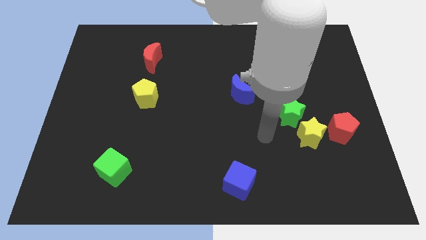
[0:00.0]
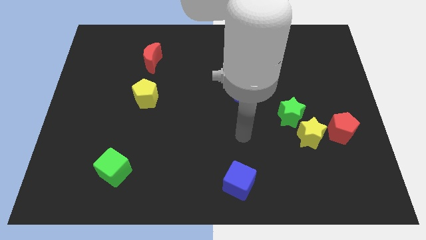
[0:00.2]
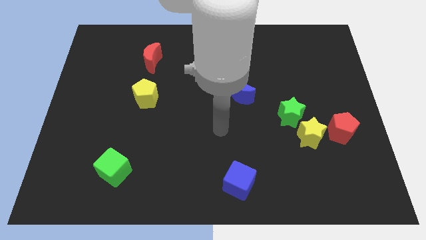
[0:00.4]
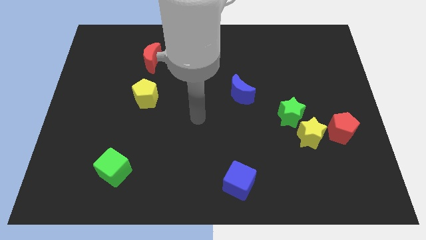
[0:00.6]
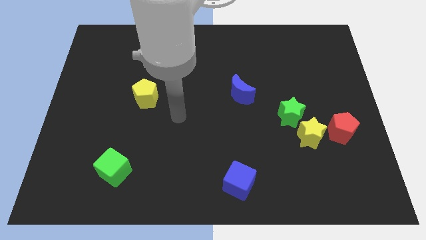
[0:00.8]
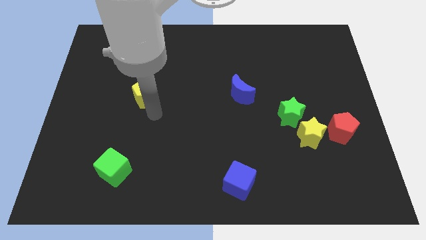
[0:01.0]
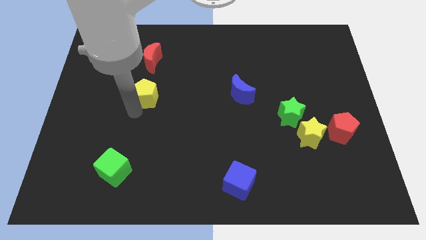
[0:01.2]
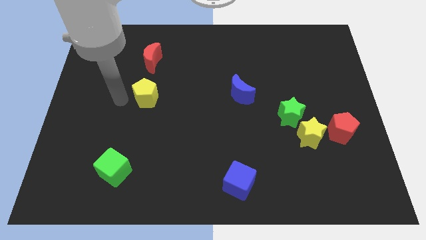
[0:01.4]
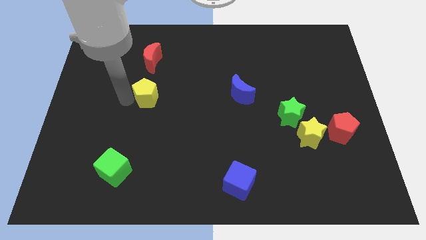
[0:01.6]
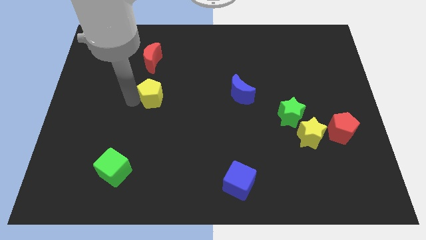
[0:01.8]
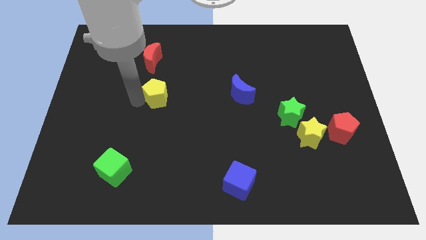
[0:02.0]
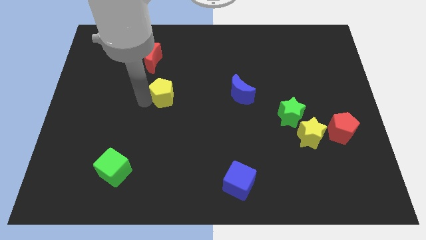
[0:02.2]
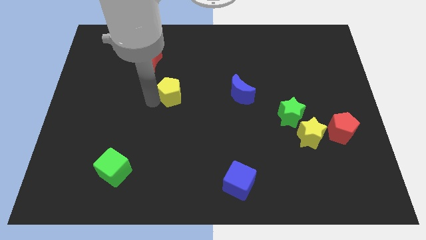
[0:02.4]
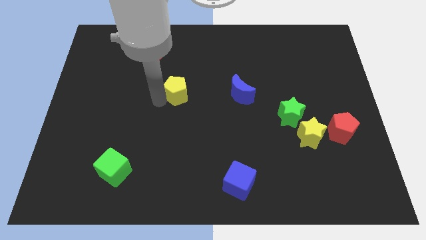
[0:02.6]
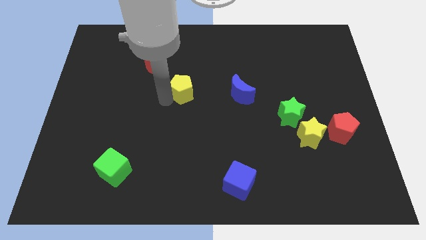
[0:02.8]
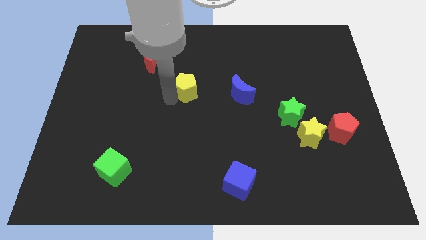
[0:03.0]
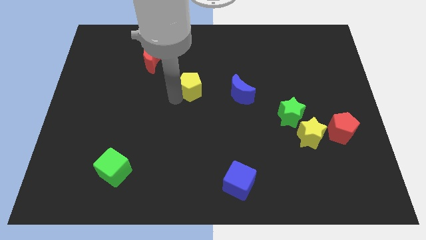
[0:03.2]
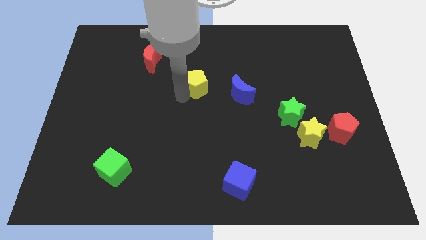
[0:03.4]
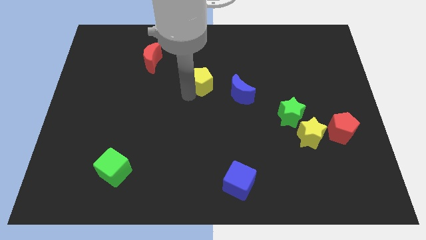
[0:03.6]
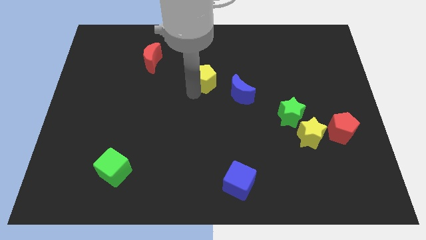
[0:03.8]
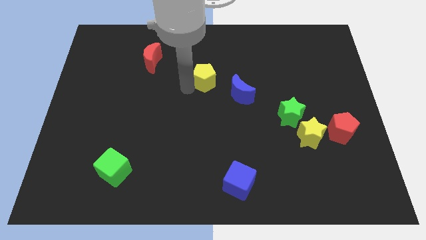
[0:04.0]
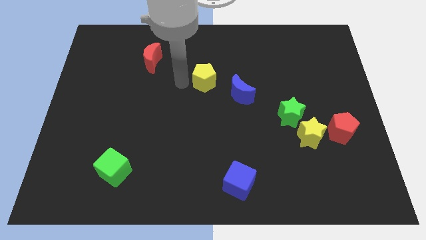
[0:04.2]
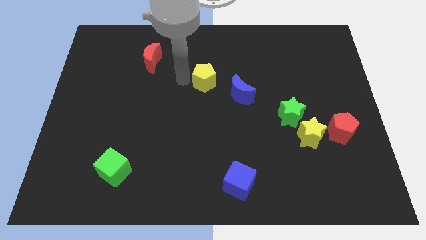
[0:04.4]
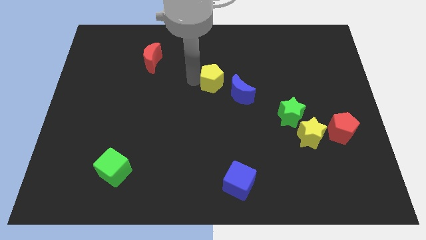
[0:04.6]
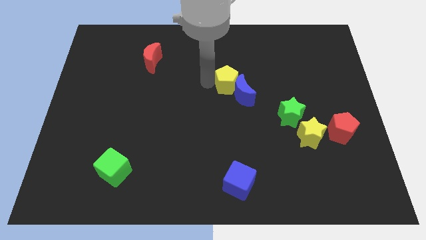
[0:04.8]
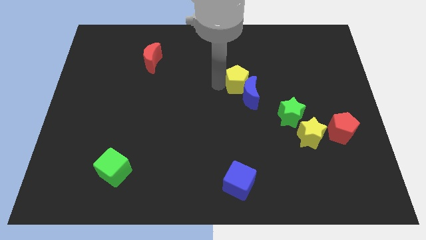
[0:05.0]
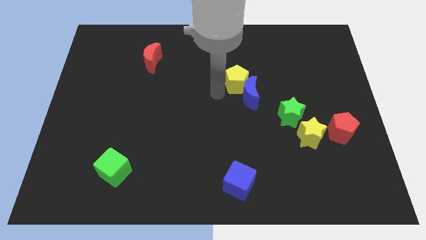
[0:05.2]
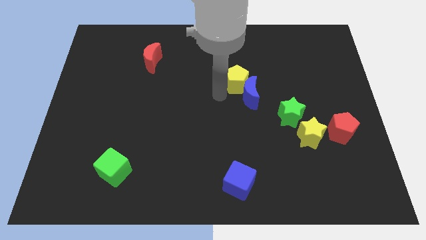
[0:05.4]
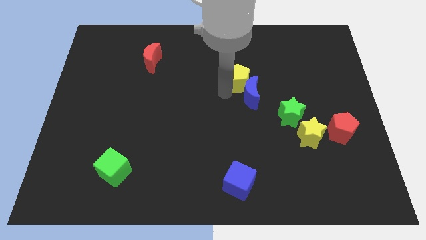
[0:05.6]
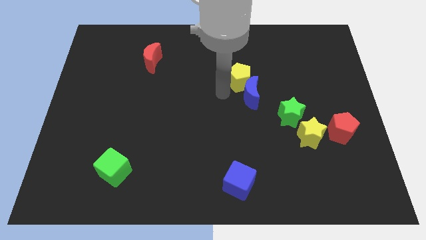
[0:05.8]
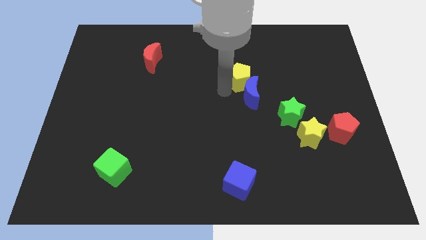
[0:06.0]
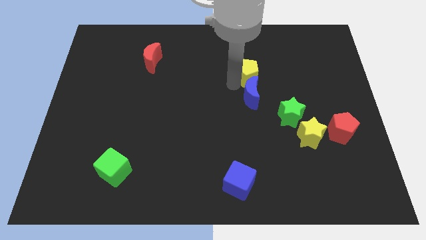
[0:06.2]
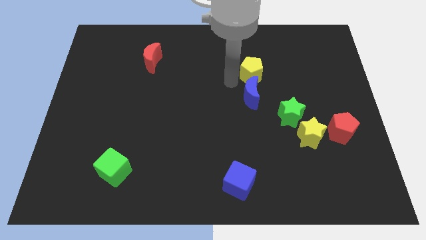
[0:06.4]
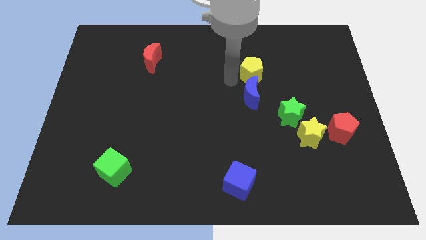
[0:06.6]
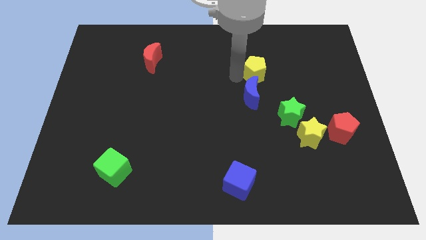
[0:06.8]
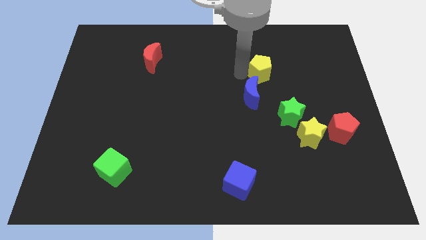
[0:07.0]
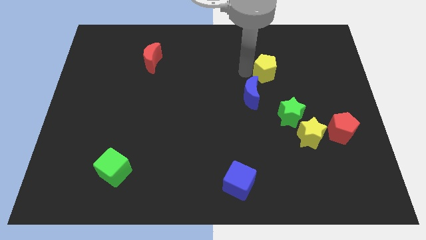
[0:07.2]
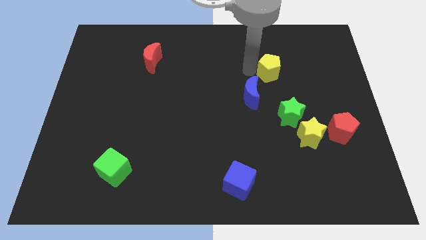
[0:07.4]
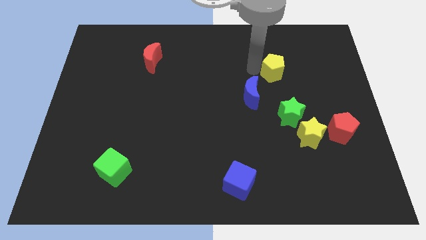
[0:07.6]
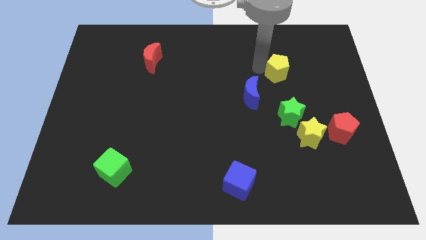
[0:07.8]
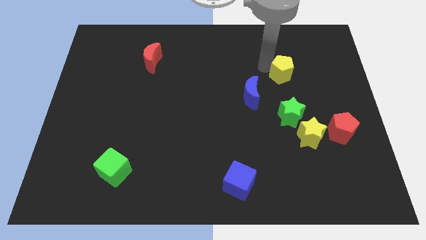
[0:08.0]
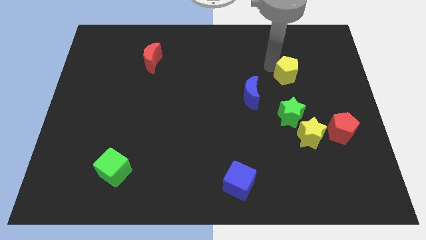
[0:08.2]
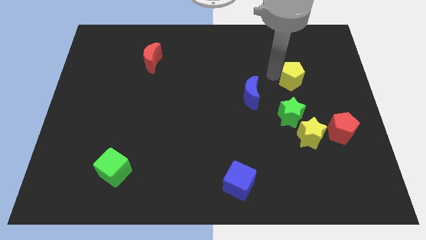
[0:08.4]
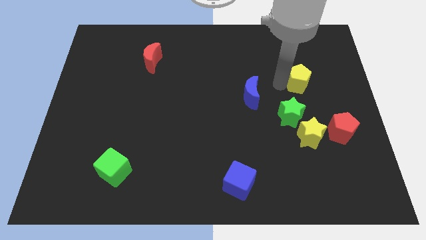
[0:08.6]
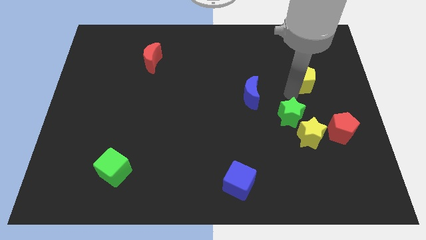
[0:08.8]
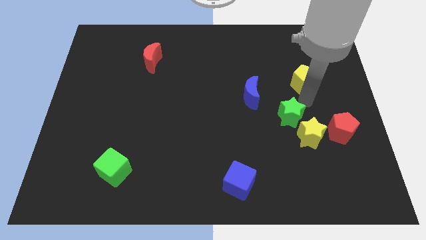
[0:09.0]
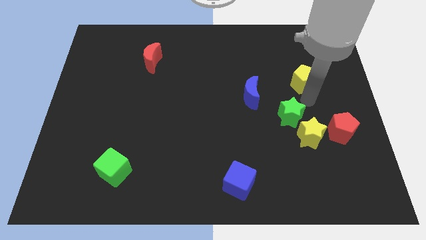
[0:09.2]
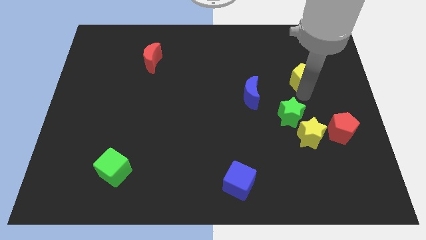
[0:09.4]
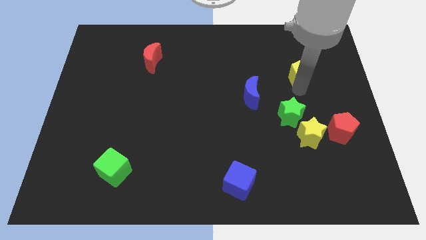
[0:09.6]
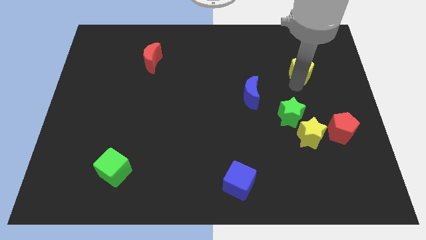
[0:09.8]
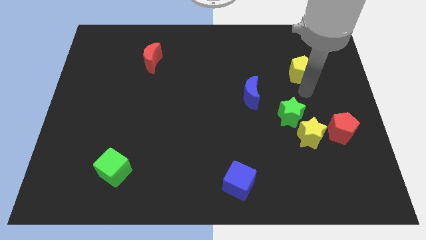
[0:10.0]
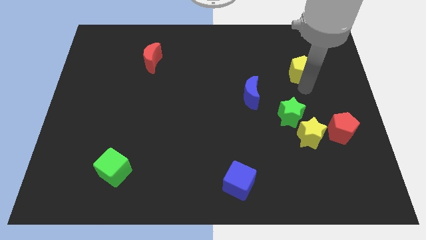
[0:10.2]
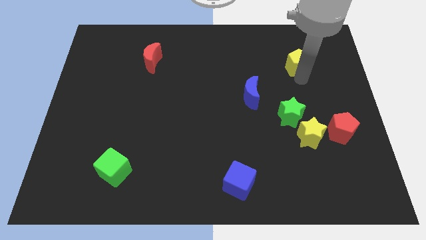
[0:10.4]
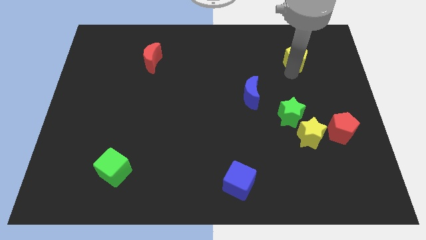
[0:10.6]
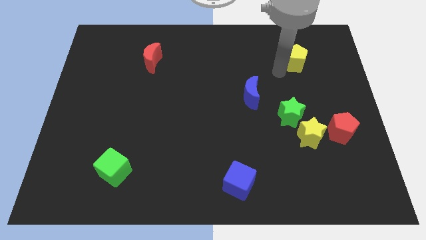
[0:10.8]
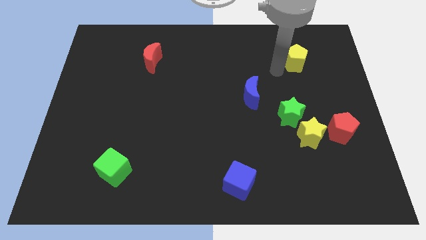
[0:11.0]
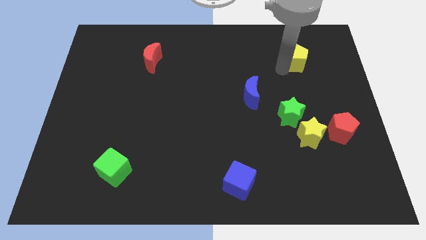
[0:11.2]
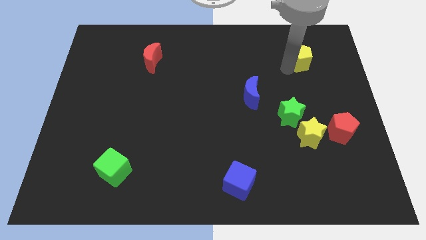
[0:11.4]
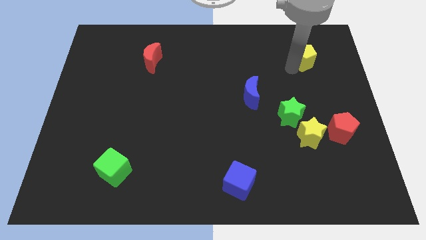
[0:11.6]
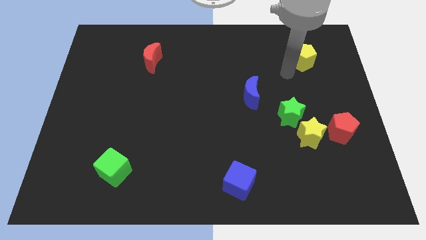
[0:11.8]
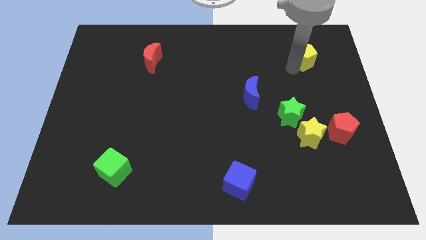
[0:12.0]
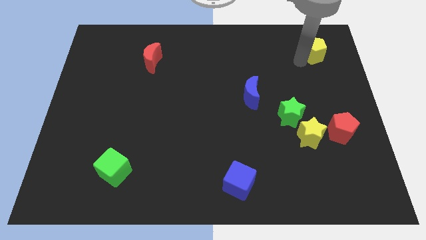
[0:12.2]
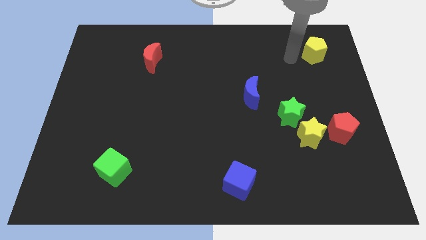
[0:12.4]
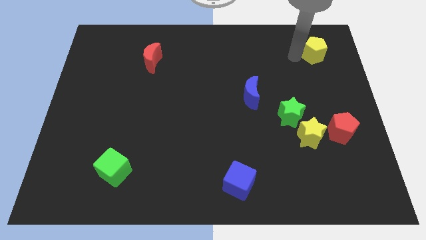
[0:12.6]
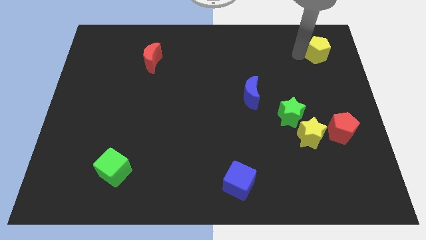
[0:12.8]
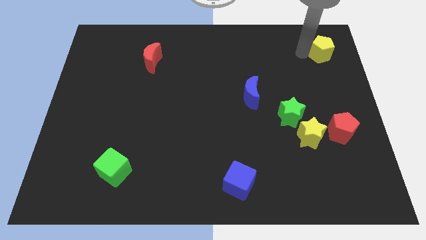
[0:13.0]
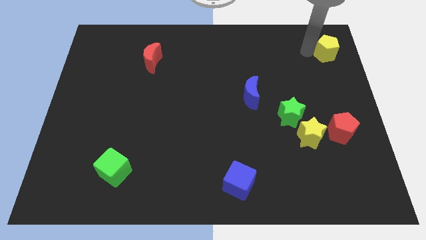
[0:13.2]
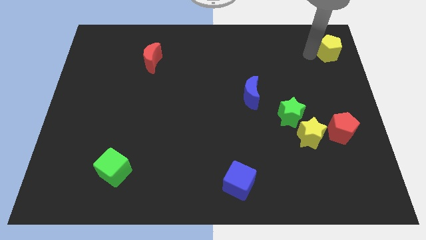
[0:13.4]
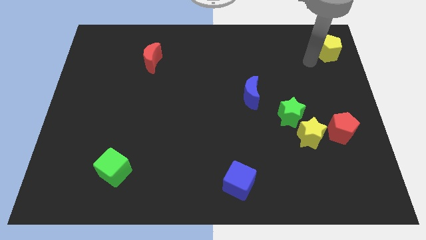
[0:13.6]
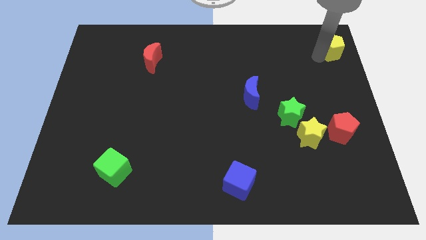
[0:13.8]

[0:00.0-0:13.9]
put the yellow pentagon to the top right corner
